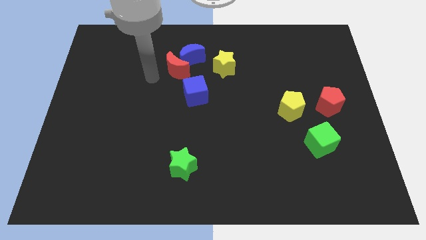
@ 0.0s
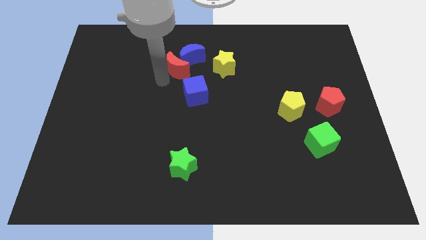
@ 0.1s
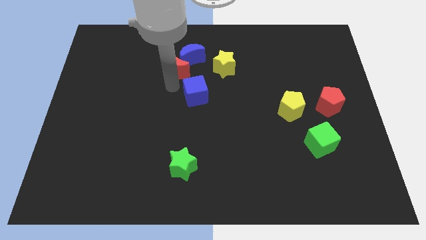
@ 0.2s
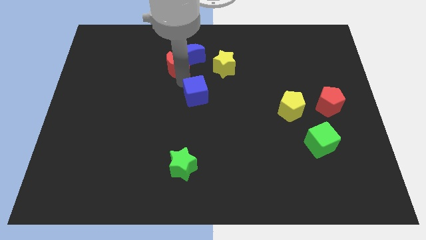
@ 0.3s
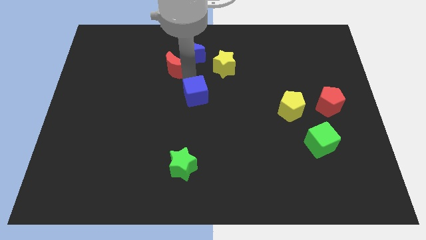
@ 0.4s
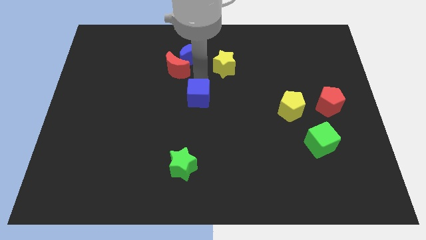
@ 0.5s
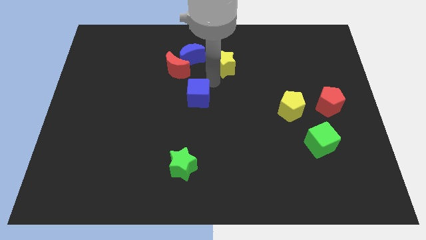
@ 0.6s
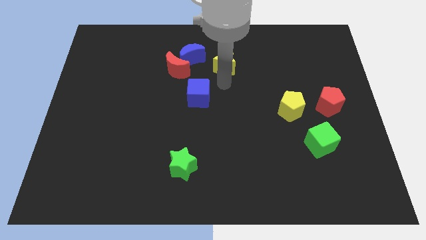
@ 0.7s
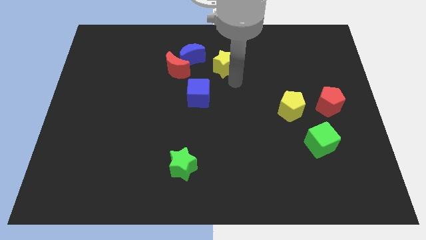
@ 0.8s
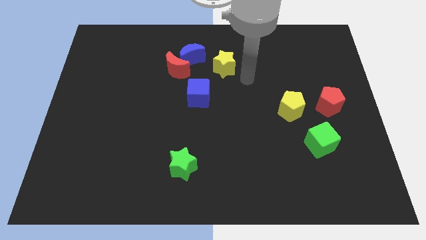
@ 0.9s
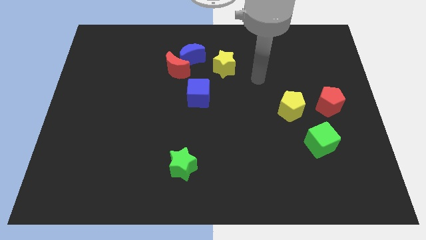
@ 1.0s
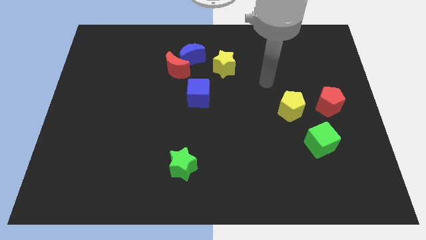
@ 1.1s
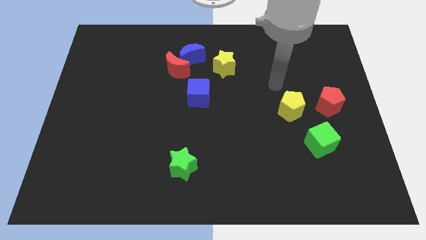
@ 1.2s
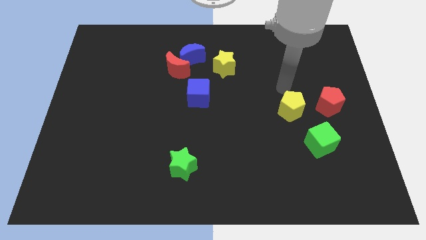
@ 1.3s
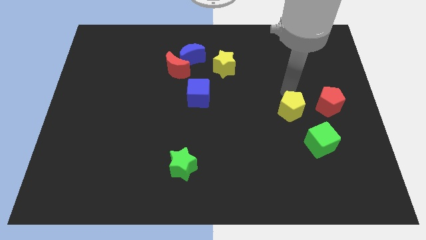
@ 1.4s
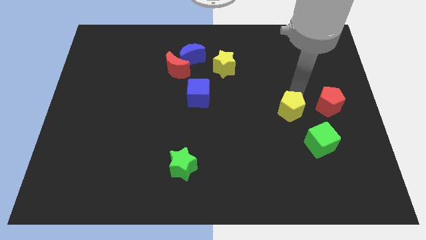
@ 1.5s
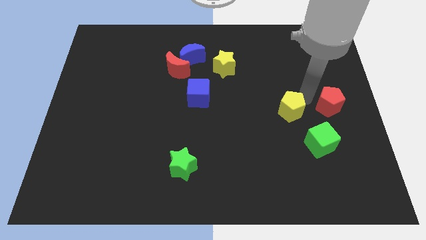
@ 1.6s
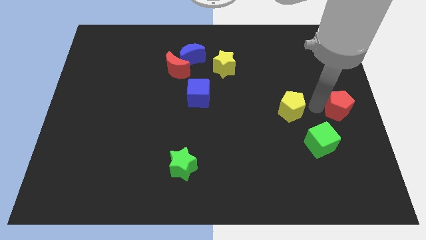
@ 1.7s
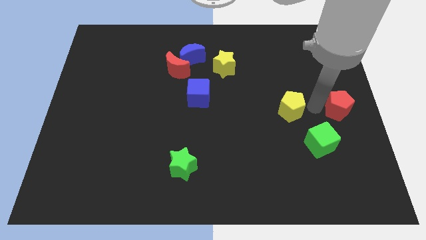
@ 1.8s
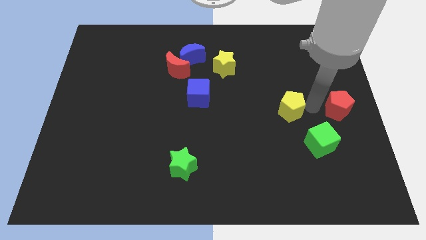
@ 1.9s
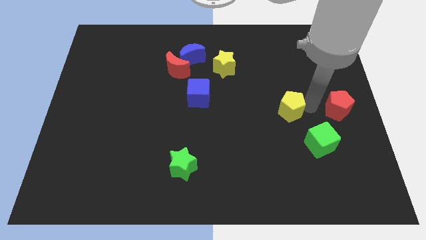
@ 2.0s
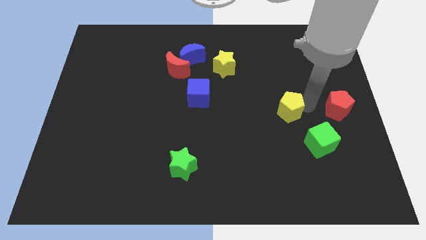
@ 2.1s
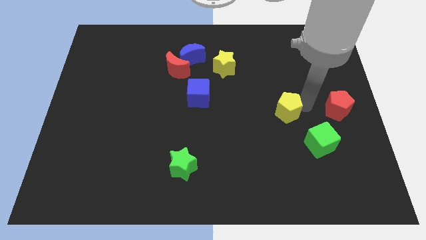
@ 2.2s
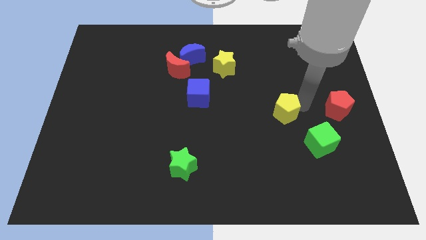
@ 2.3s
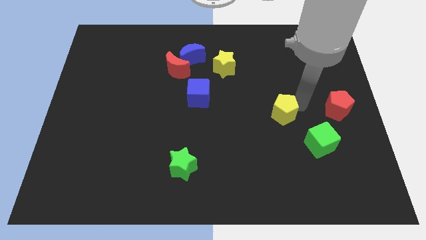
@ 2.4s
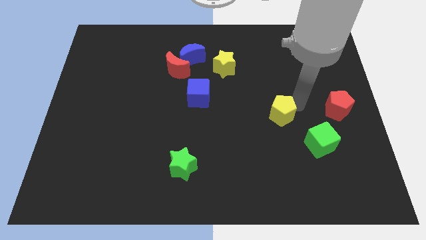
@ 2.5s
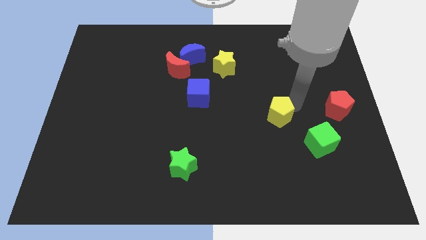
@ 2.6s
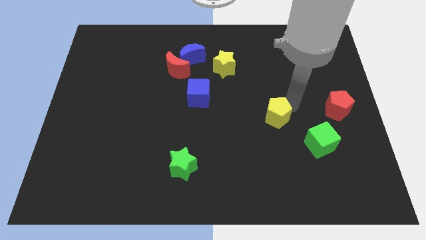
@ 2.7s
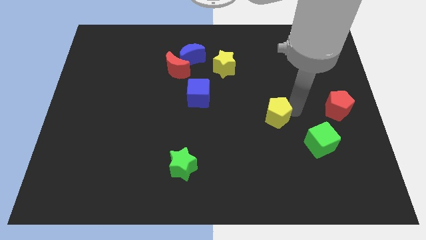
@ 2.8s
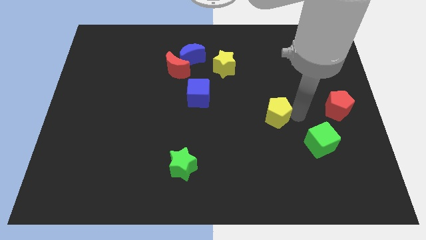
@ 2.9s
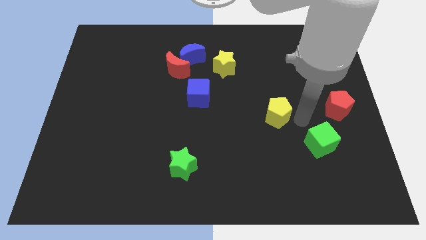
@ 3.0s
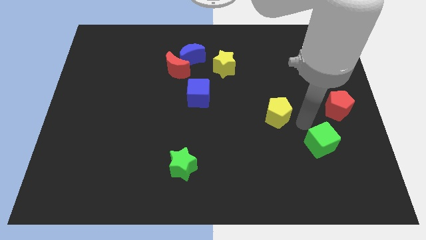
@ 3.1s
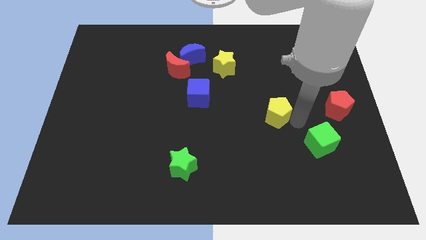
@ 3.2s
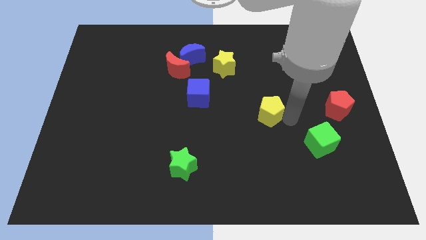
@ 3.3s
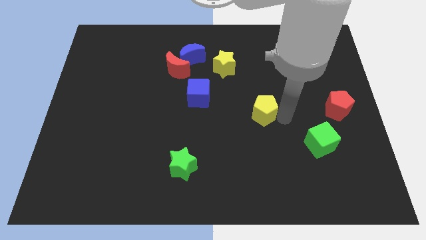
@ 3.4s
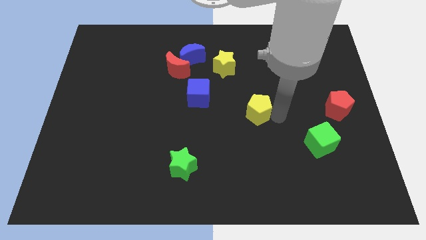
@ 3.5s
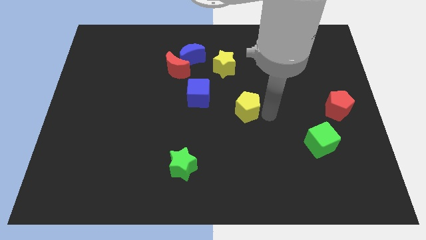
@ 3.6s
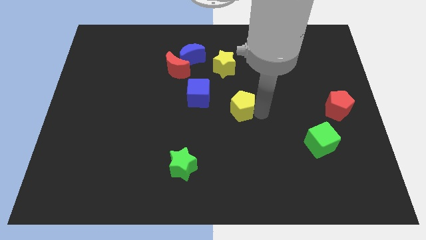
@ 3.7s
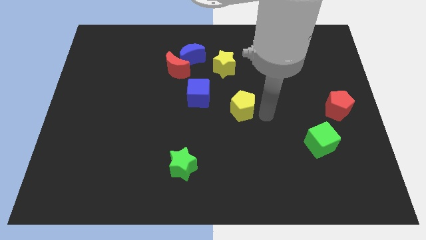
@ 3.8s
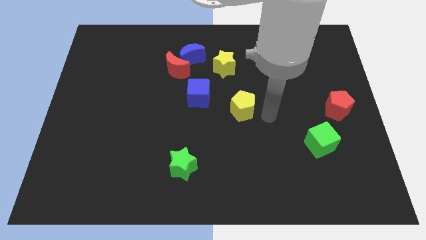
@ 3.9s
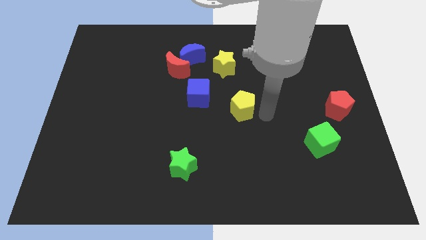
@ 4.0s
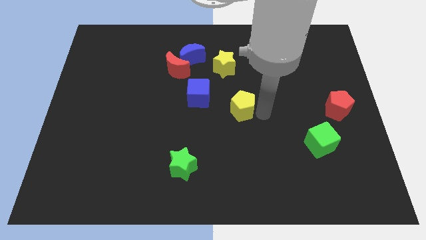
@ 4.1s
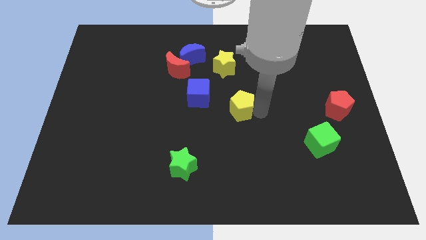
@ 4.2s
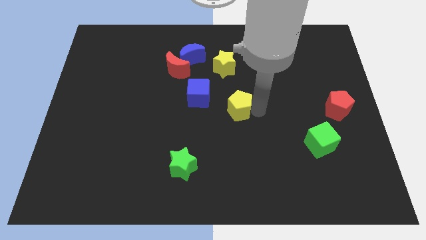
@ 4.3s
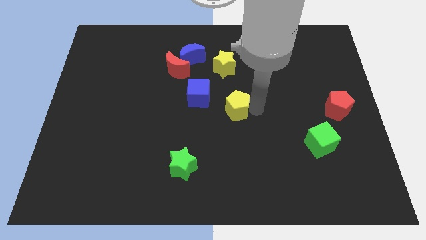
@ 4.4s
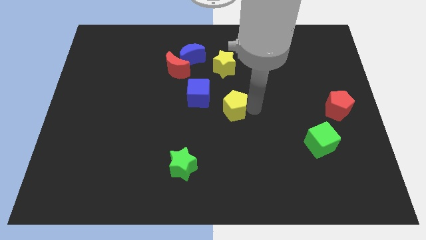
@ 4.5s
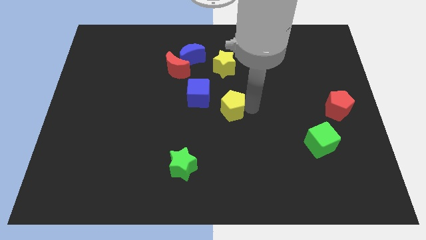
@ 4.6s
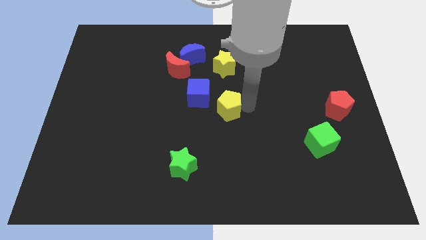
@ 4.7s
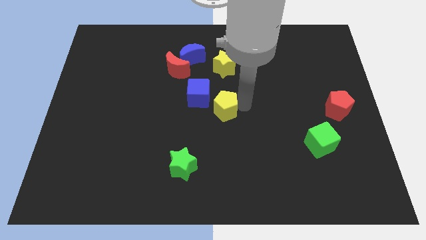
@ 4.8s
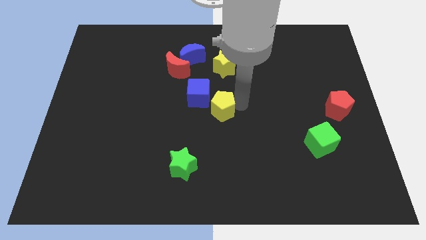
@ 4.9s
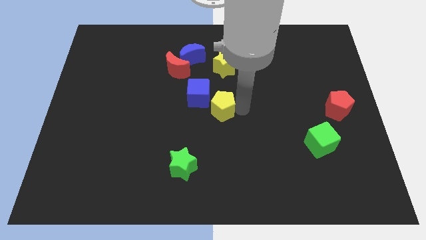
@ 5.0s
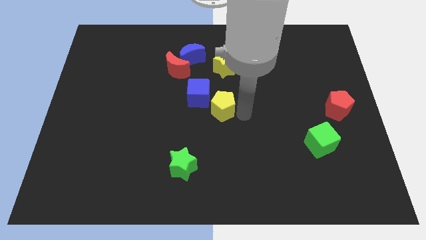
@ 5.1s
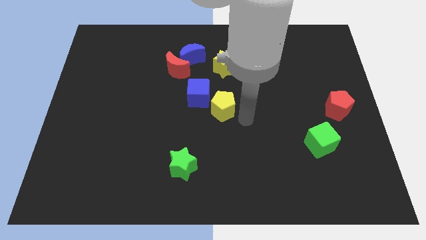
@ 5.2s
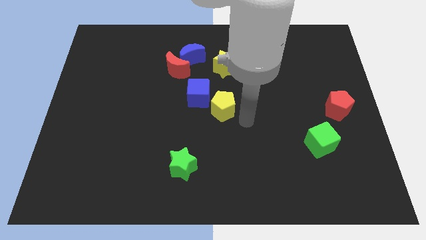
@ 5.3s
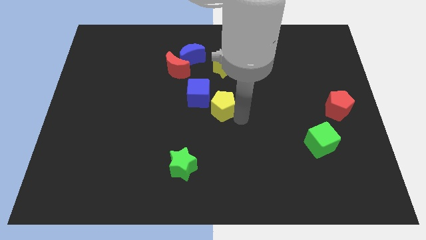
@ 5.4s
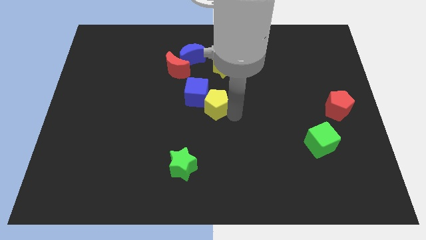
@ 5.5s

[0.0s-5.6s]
push the yellow pentagon next to the blue cube
